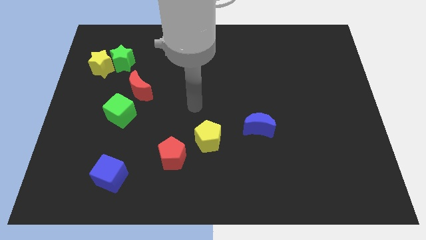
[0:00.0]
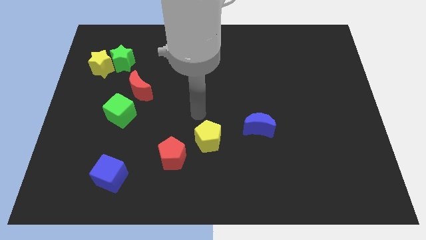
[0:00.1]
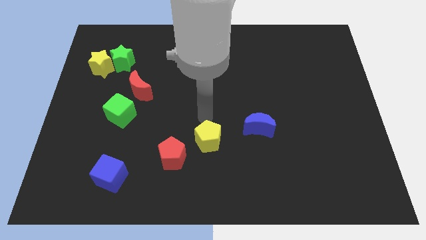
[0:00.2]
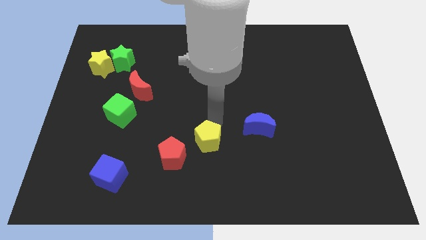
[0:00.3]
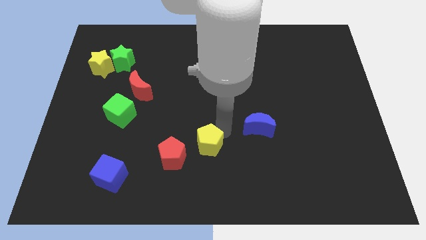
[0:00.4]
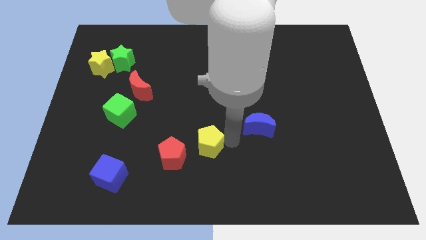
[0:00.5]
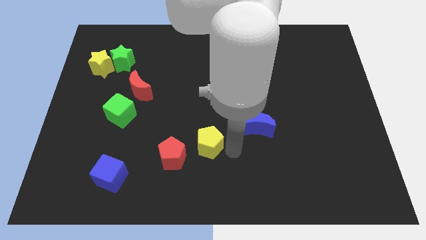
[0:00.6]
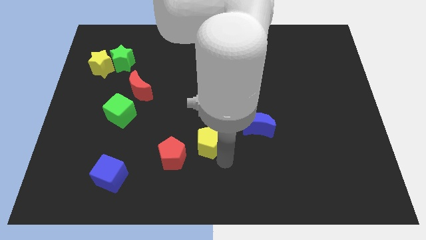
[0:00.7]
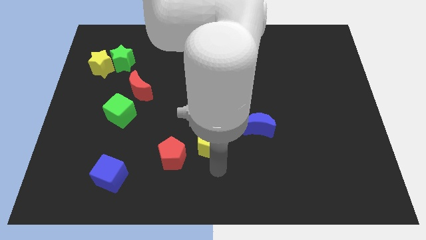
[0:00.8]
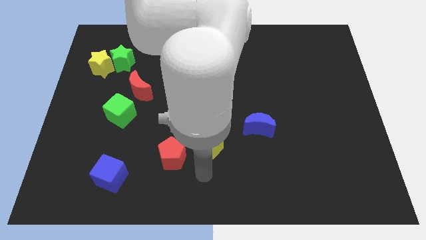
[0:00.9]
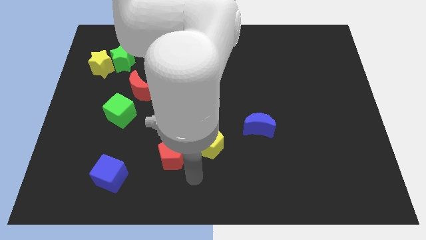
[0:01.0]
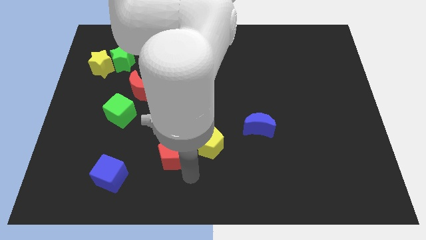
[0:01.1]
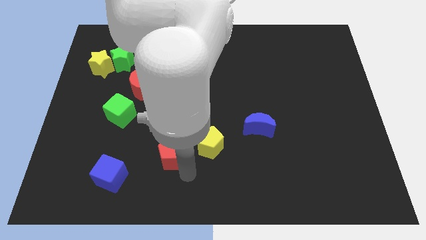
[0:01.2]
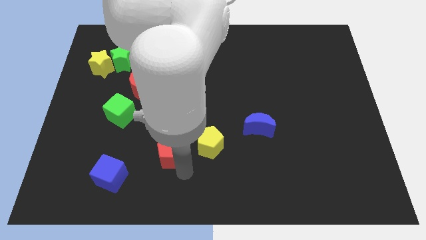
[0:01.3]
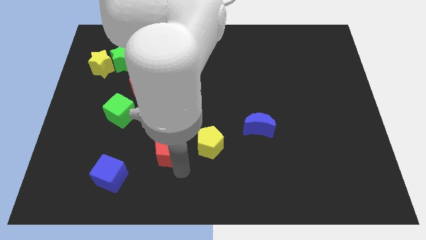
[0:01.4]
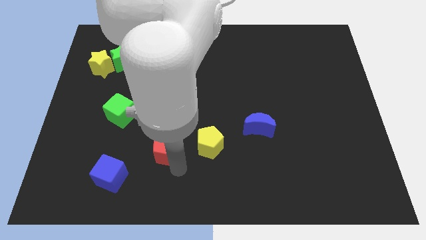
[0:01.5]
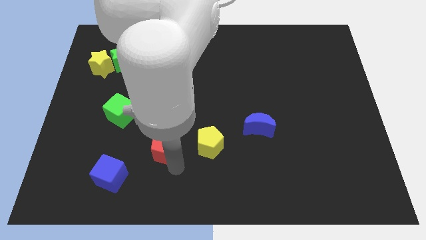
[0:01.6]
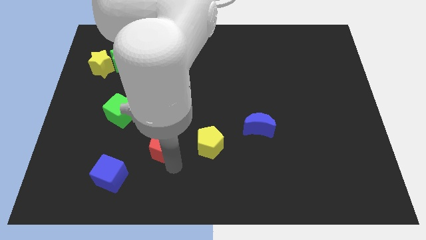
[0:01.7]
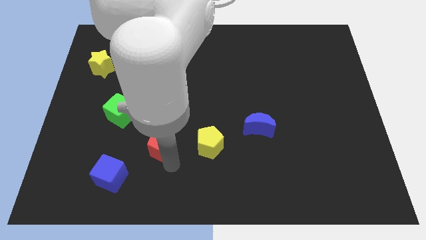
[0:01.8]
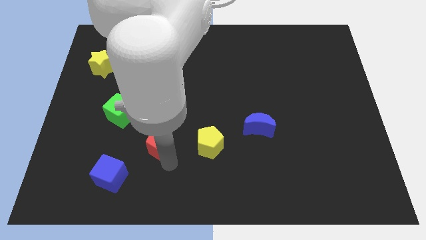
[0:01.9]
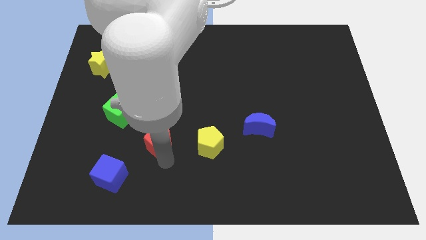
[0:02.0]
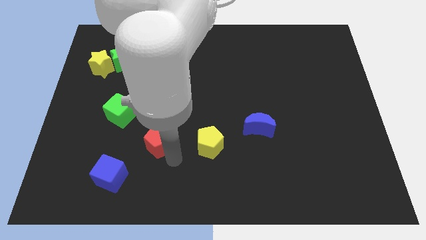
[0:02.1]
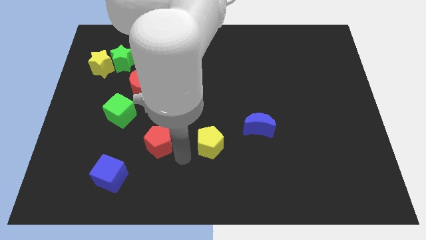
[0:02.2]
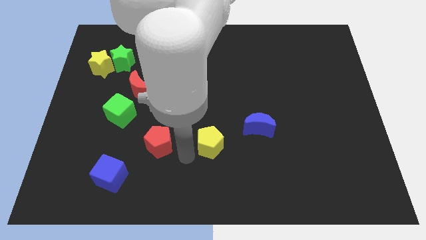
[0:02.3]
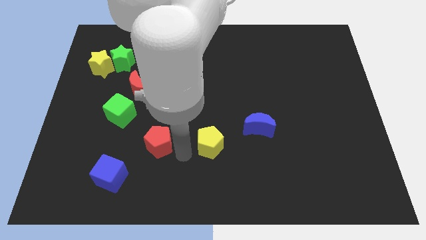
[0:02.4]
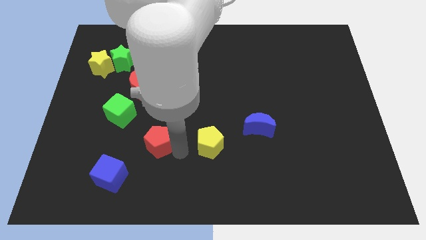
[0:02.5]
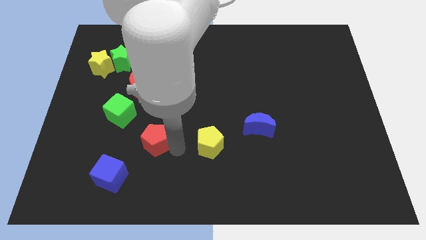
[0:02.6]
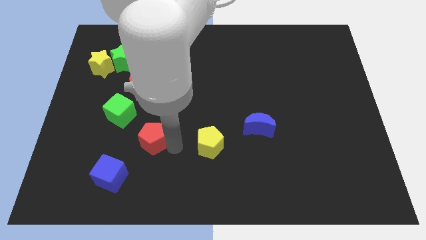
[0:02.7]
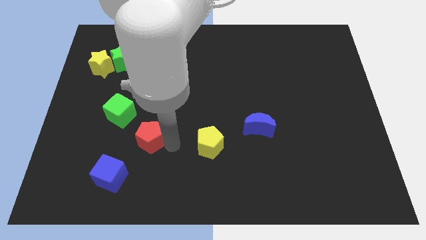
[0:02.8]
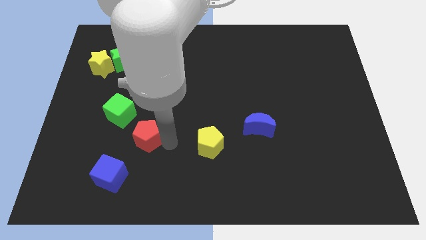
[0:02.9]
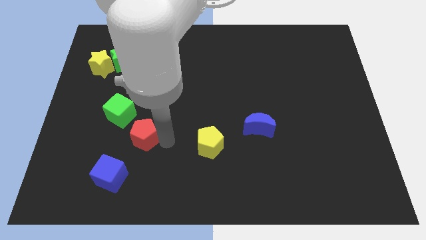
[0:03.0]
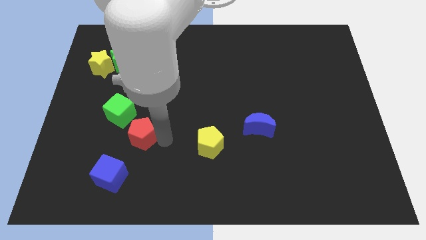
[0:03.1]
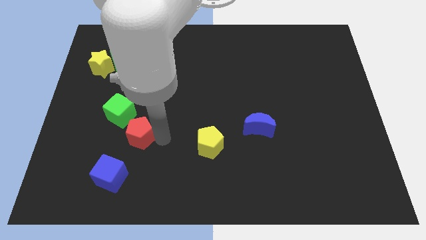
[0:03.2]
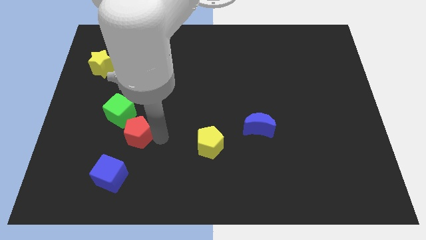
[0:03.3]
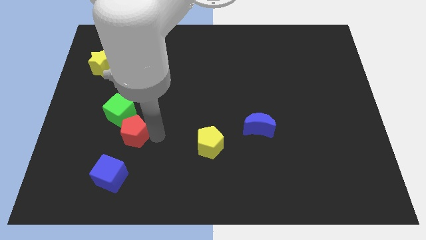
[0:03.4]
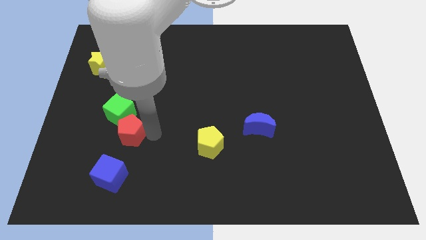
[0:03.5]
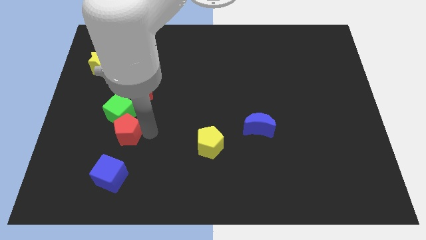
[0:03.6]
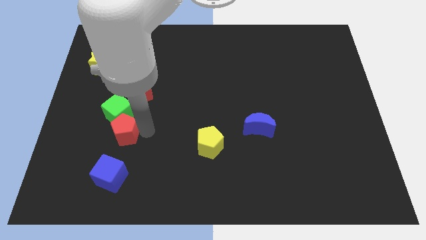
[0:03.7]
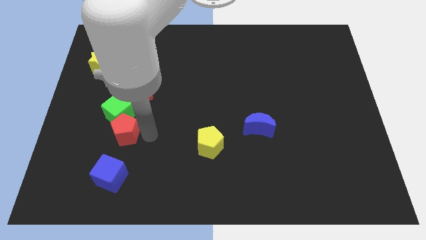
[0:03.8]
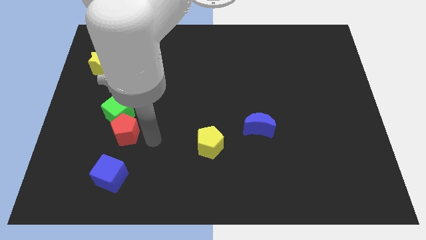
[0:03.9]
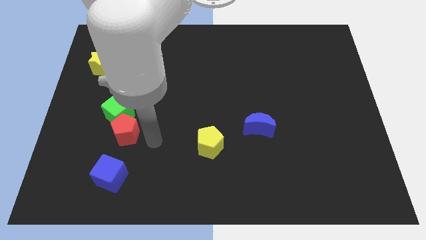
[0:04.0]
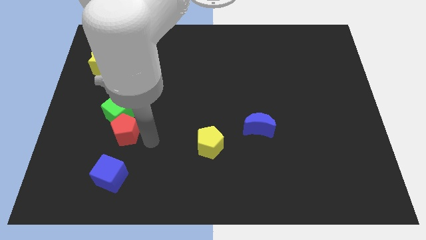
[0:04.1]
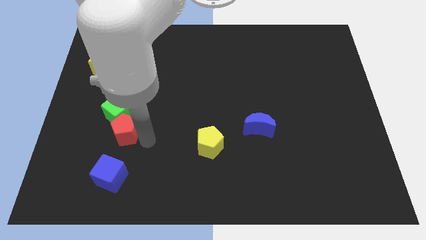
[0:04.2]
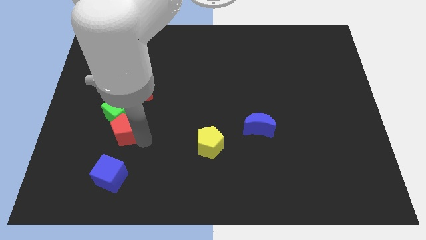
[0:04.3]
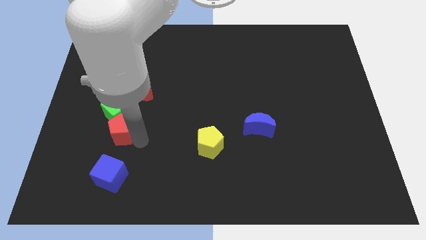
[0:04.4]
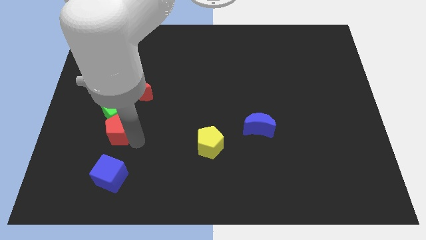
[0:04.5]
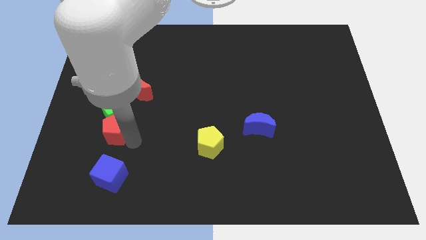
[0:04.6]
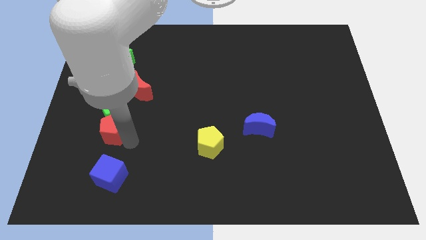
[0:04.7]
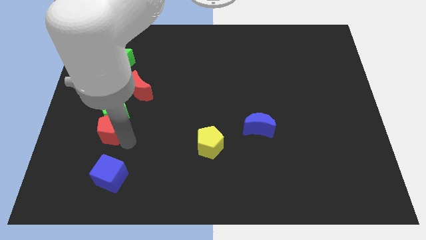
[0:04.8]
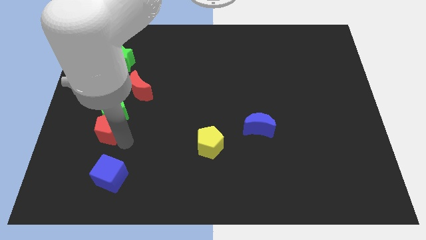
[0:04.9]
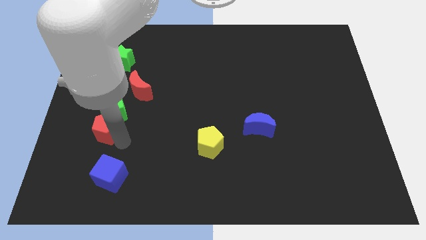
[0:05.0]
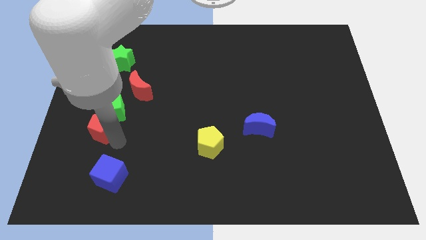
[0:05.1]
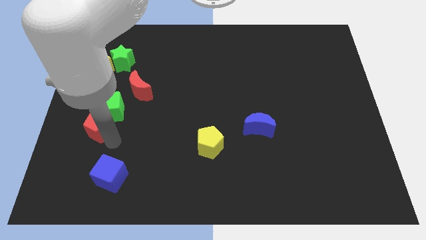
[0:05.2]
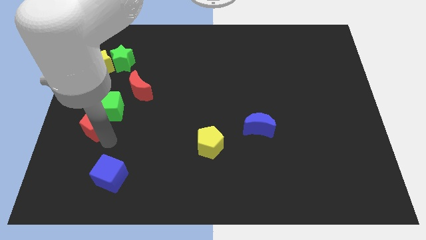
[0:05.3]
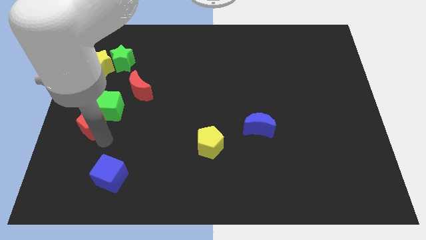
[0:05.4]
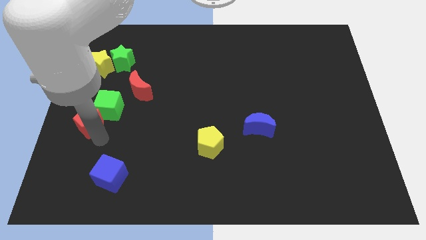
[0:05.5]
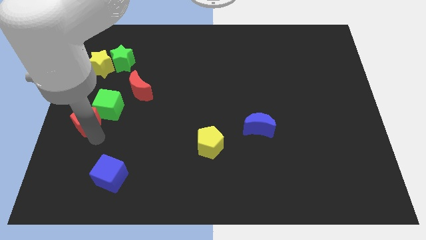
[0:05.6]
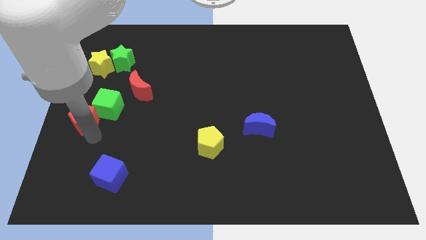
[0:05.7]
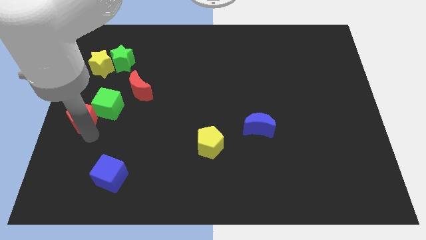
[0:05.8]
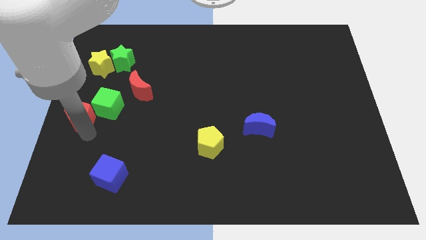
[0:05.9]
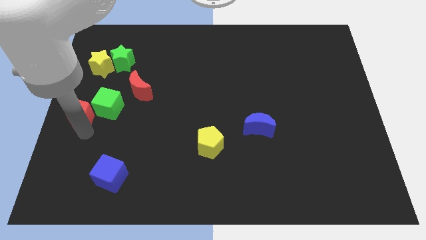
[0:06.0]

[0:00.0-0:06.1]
move the red pentagon below the yellow star
